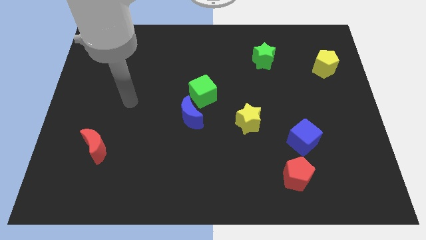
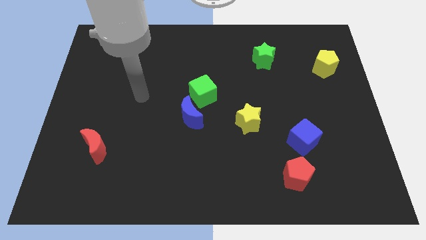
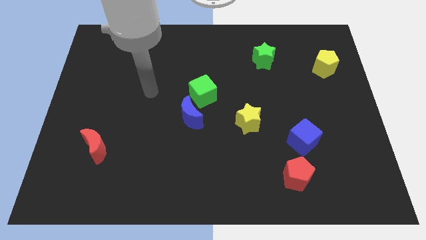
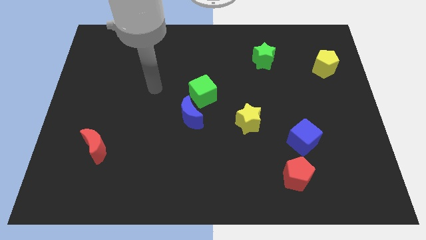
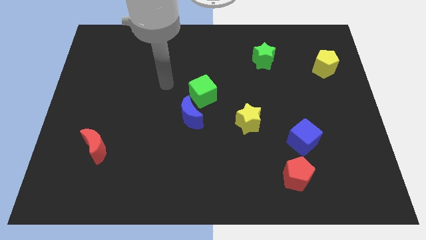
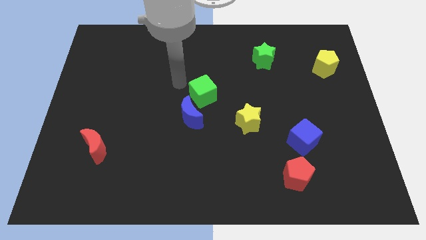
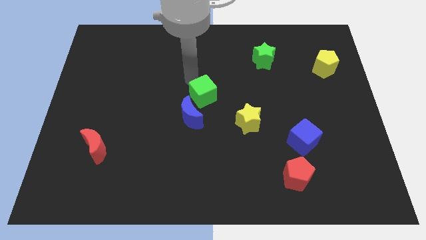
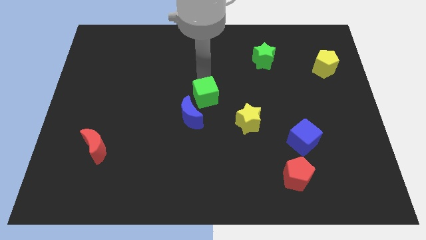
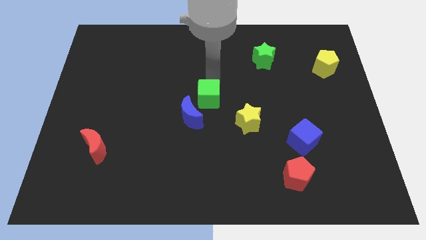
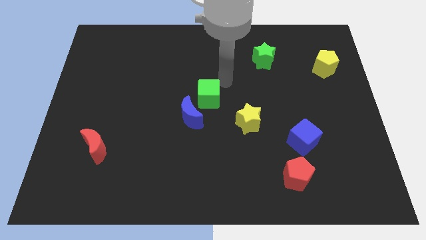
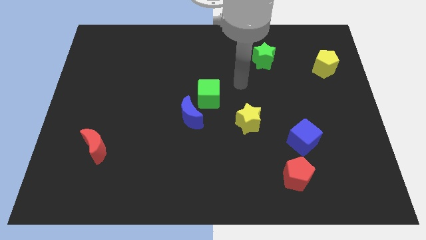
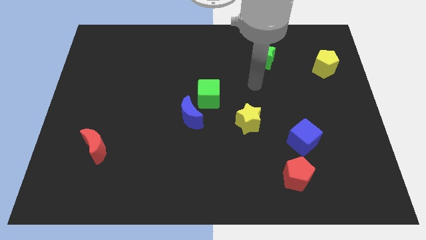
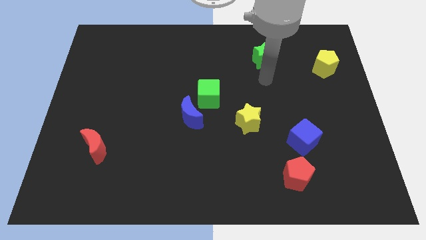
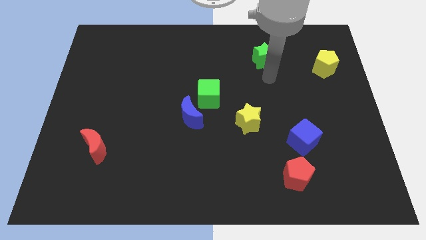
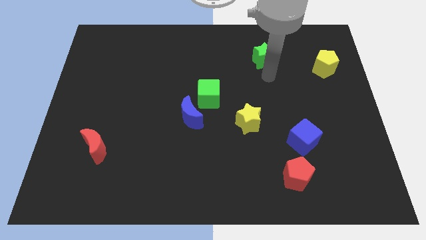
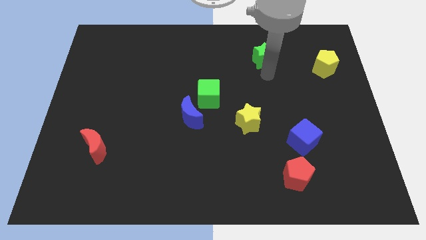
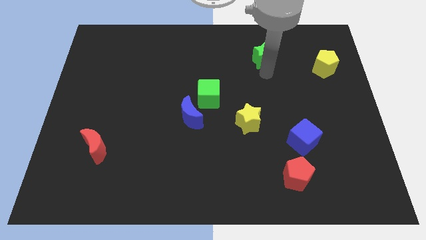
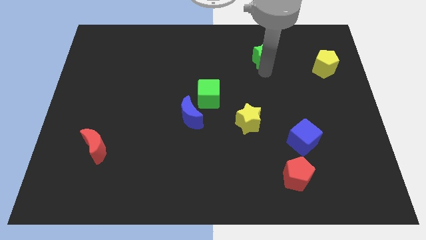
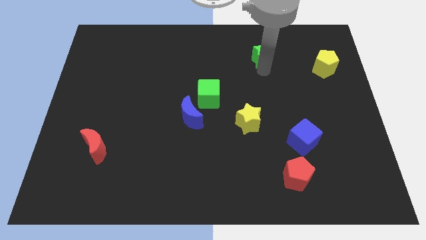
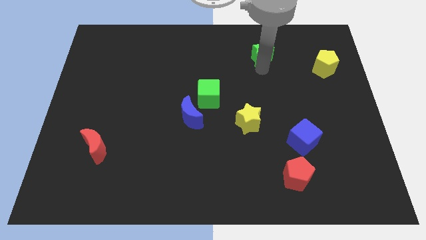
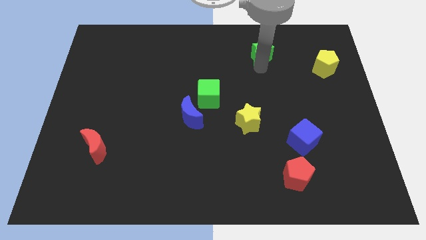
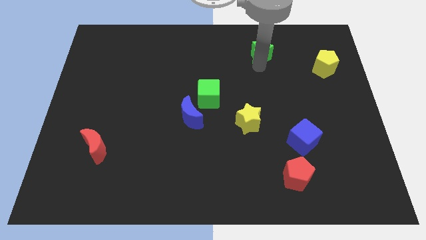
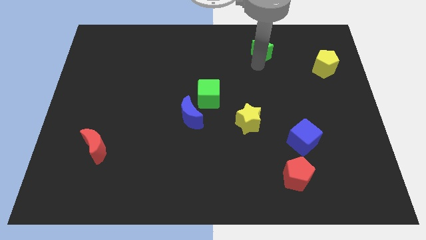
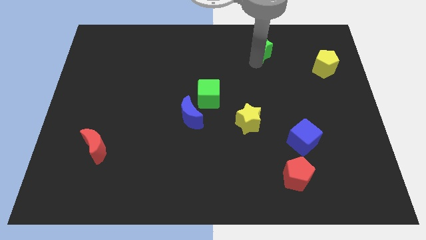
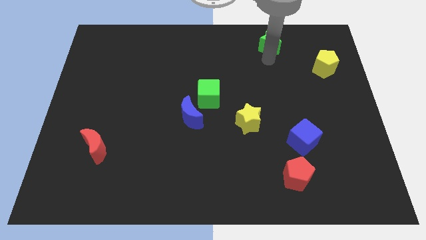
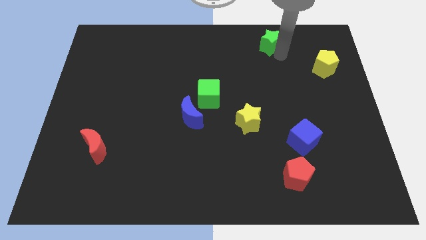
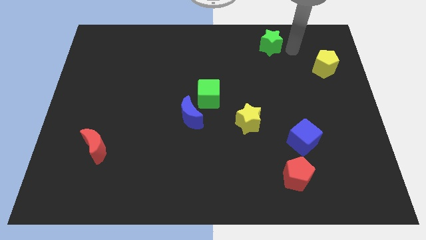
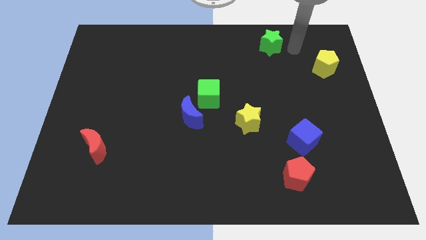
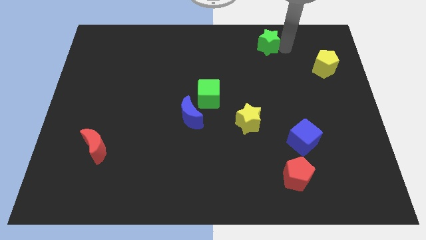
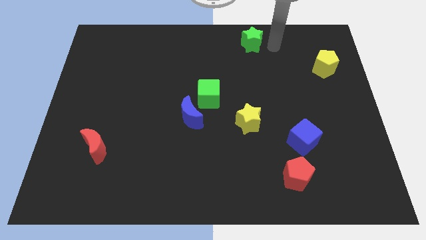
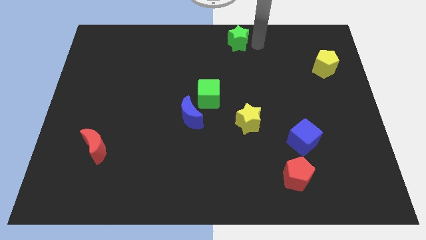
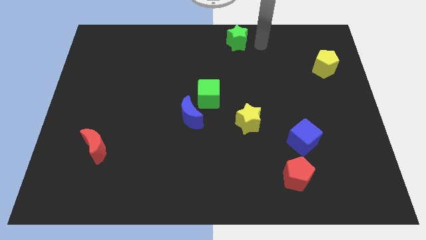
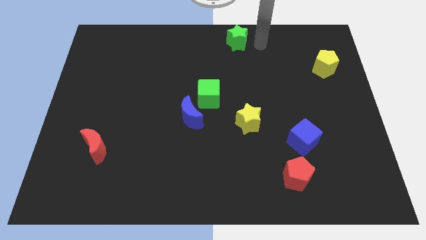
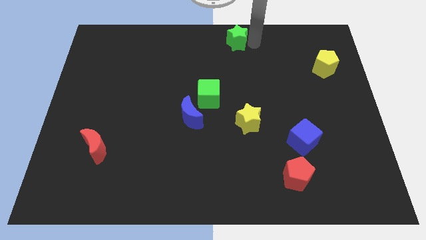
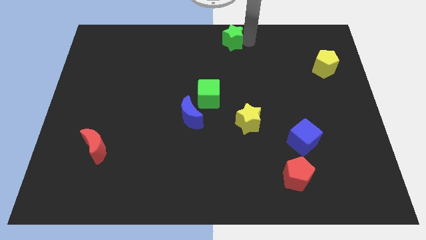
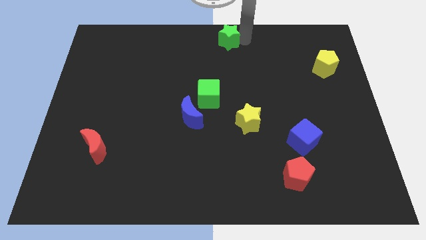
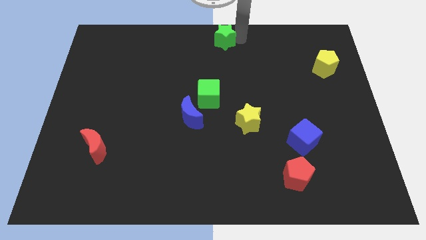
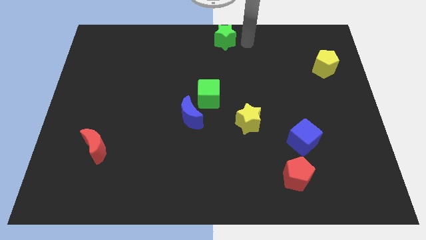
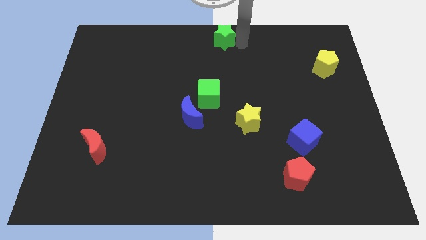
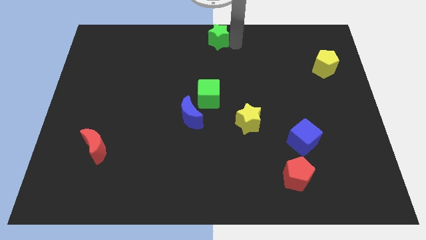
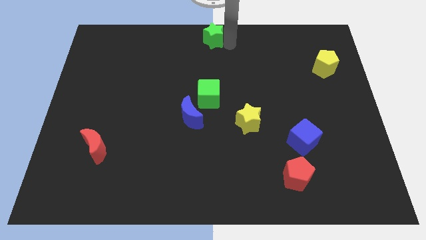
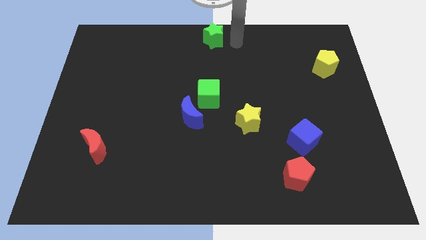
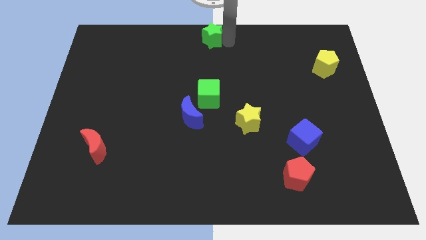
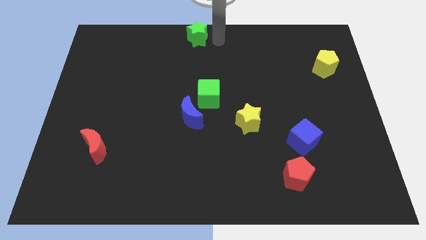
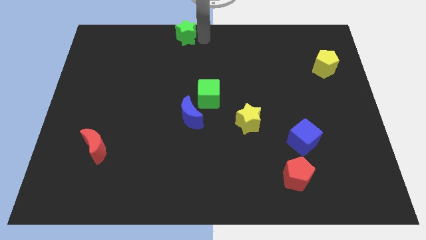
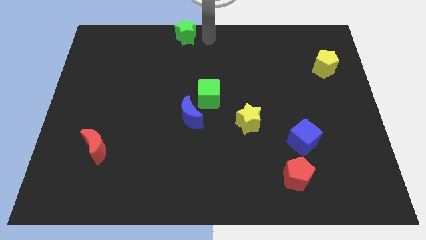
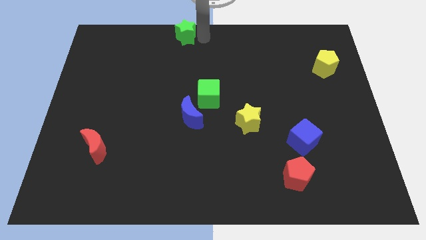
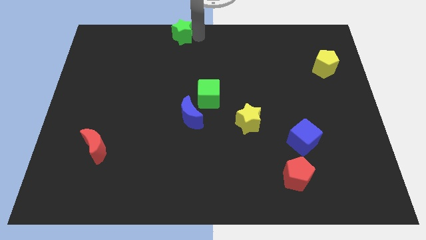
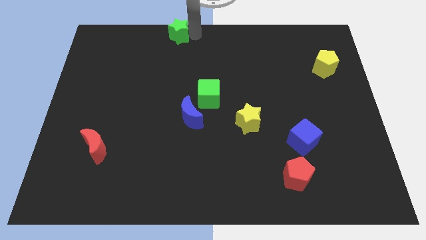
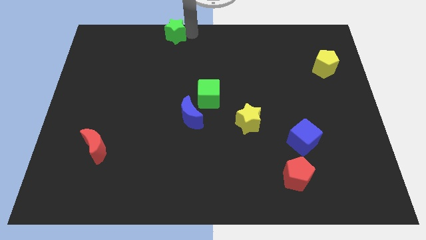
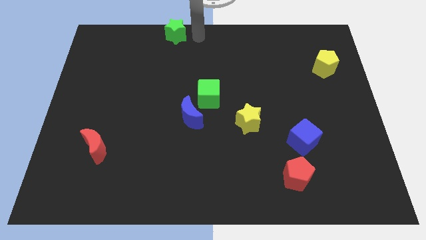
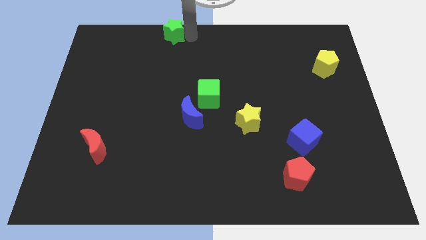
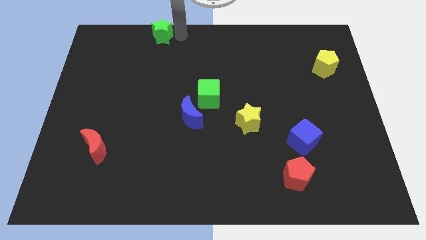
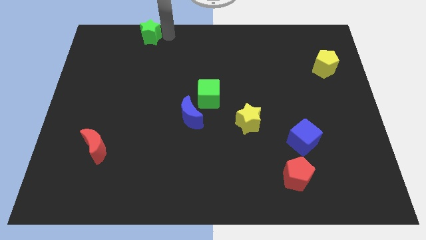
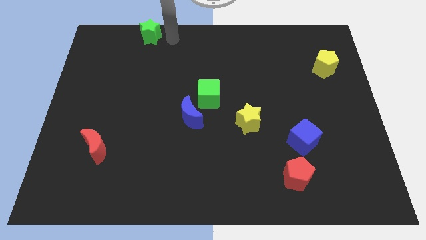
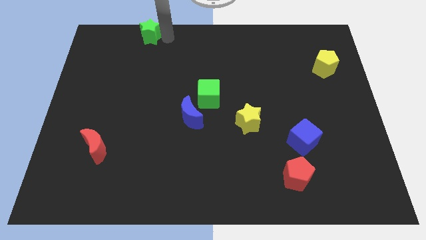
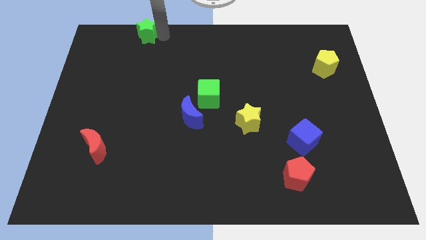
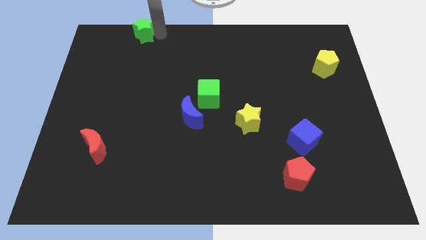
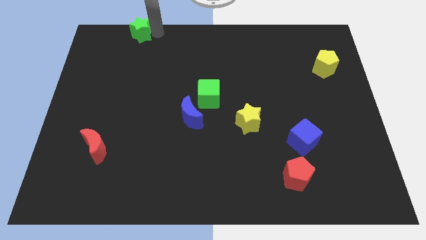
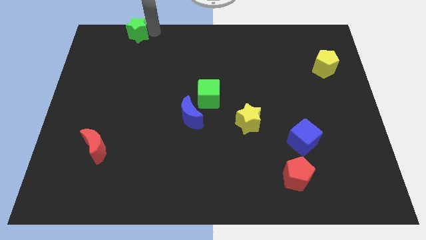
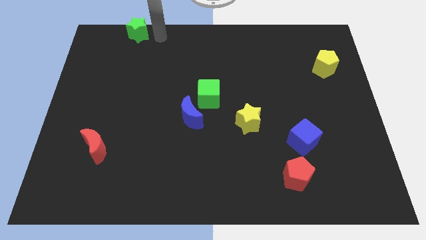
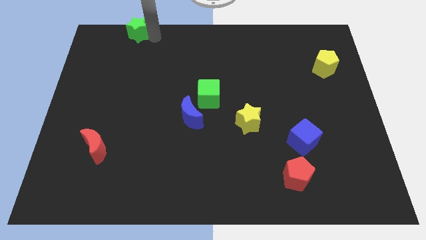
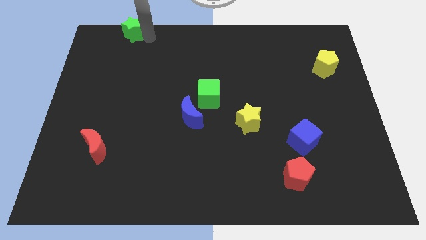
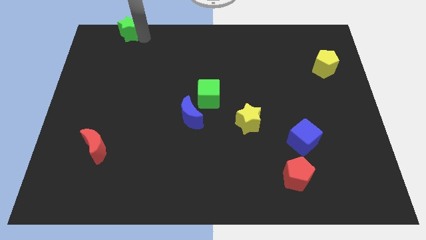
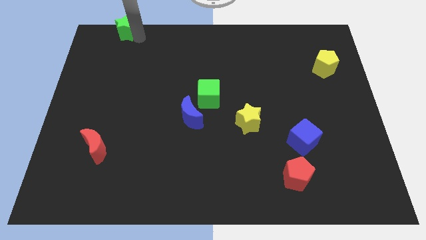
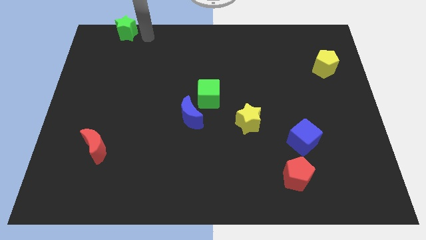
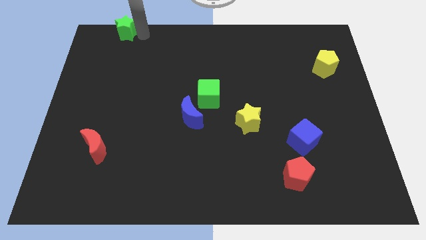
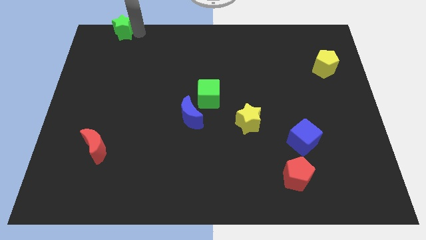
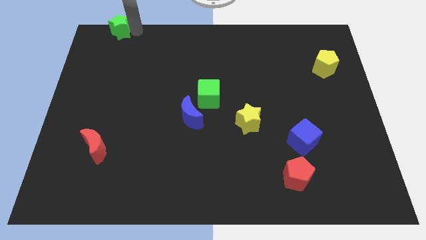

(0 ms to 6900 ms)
put the green star to the top left
